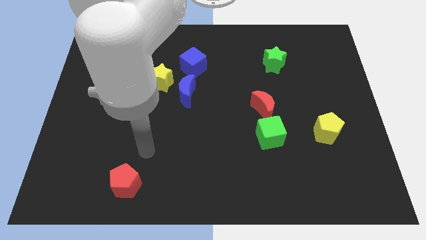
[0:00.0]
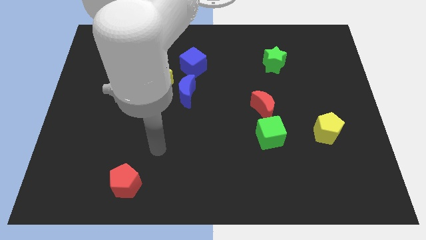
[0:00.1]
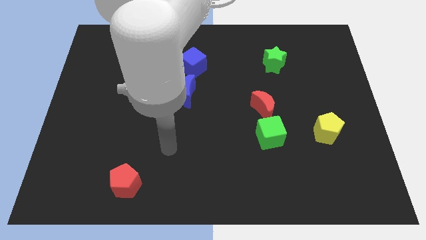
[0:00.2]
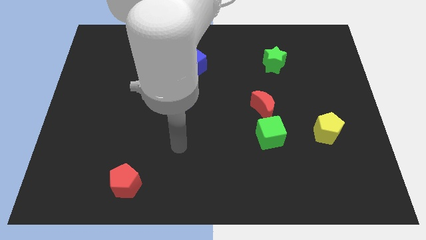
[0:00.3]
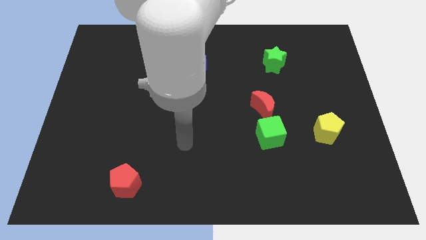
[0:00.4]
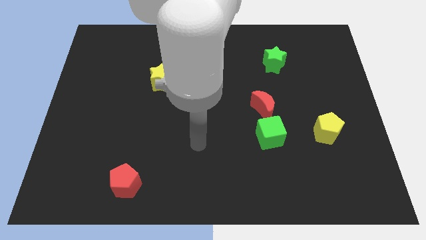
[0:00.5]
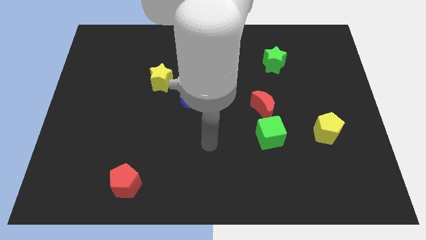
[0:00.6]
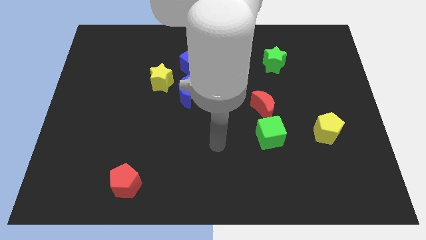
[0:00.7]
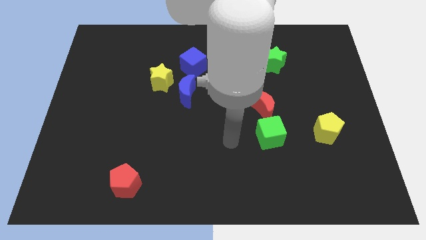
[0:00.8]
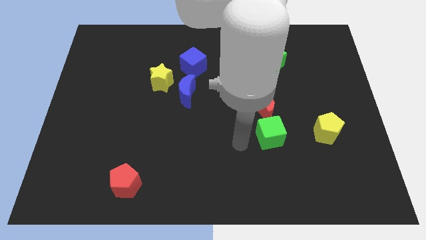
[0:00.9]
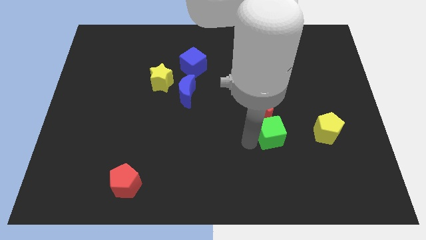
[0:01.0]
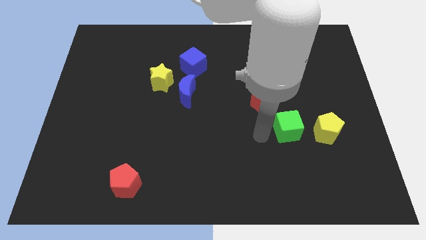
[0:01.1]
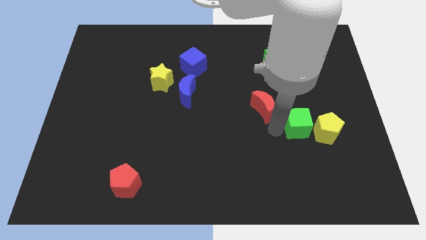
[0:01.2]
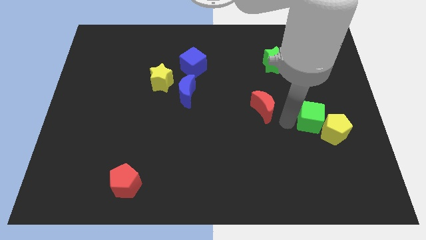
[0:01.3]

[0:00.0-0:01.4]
pull the red moon apart from the green cube

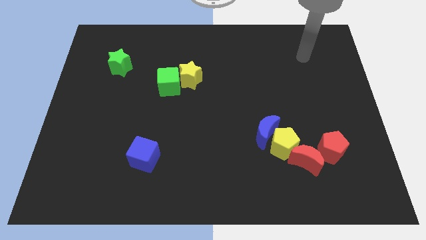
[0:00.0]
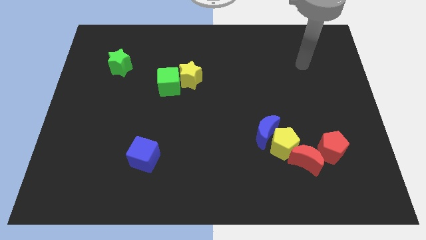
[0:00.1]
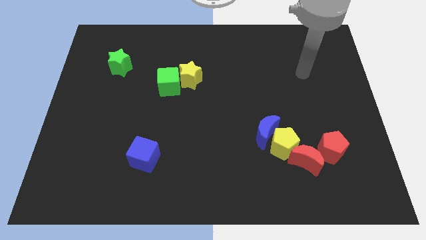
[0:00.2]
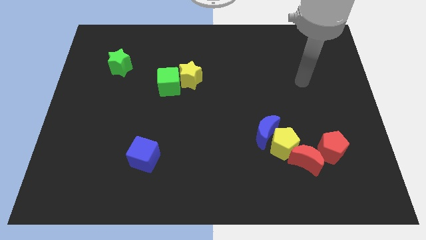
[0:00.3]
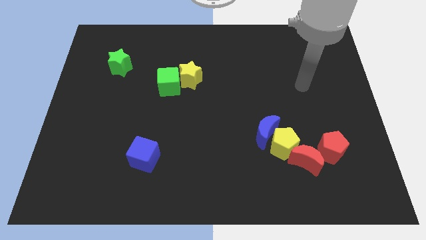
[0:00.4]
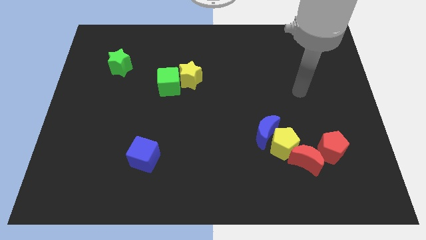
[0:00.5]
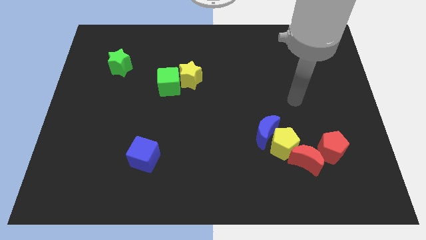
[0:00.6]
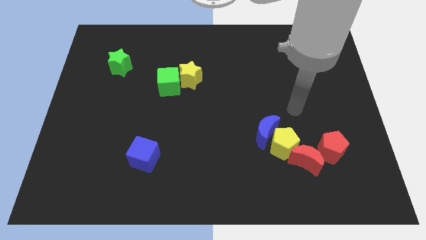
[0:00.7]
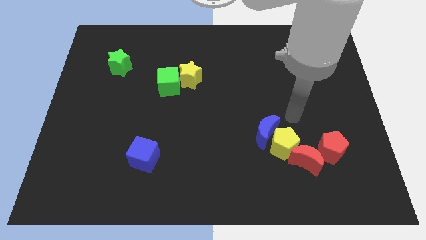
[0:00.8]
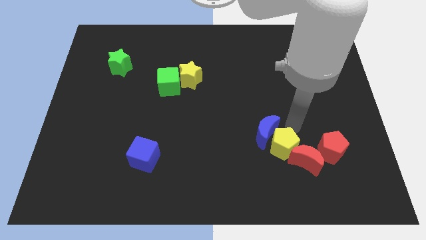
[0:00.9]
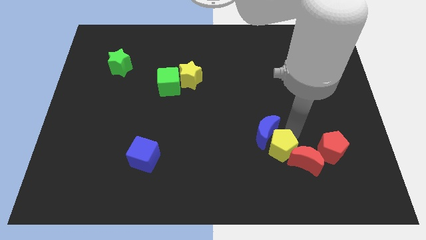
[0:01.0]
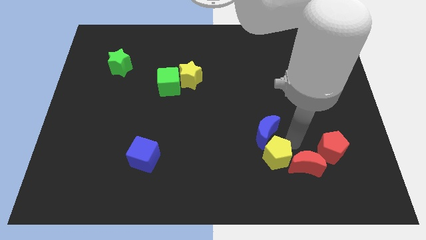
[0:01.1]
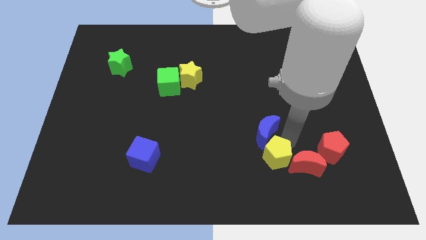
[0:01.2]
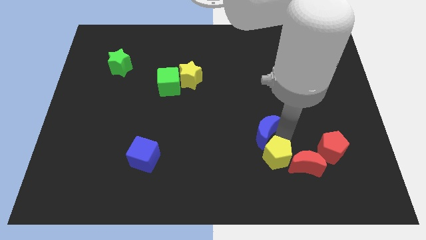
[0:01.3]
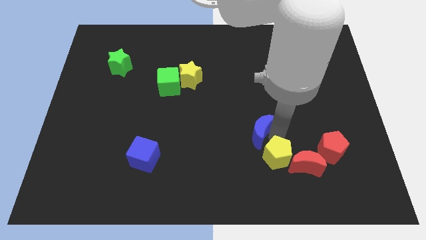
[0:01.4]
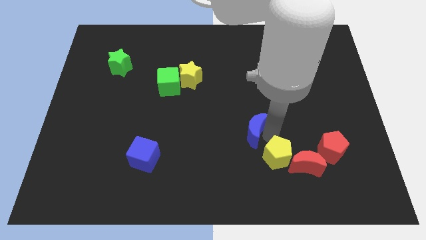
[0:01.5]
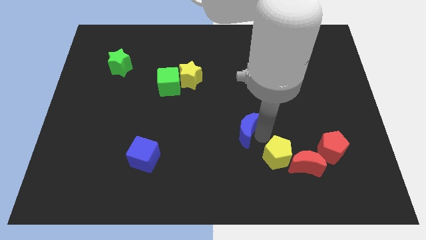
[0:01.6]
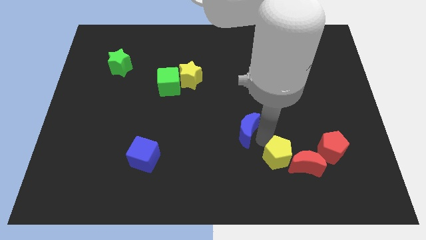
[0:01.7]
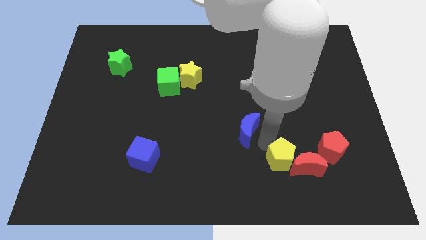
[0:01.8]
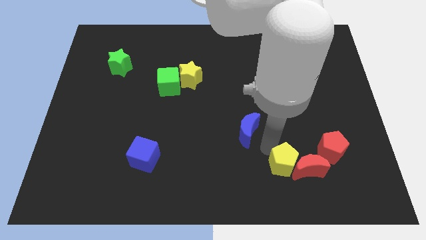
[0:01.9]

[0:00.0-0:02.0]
pull the blue moon apart from the yellow pentagon

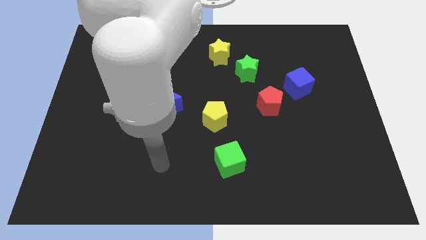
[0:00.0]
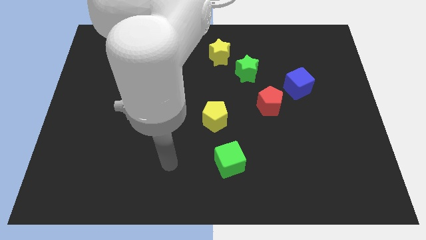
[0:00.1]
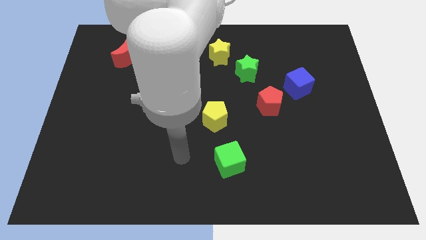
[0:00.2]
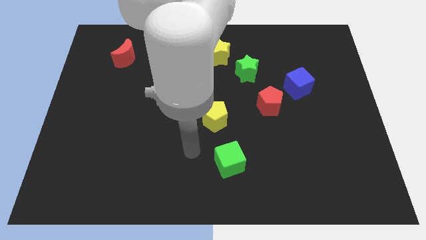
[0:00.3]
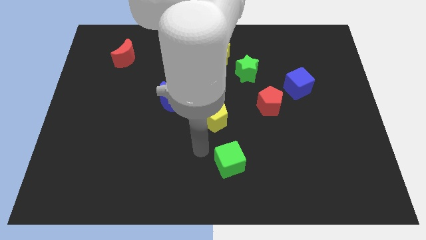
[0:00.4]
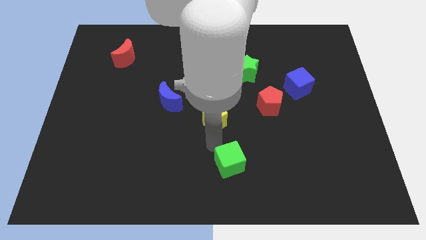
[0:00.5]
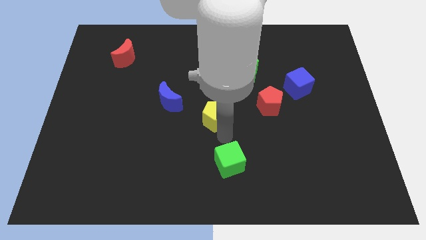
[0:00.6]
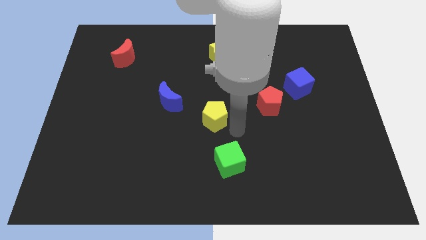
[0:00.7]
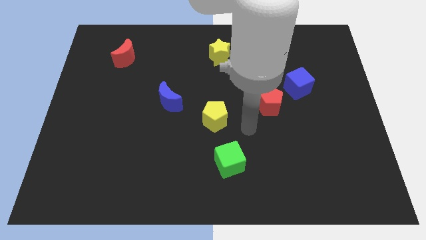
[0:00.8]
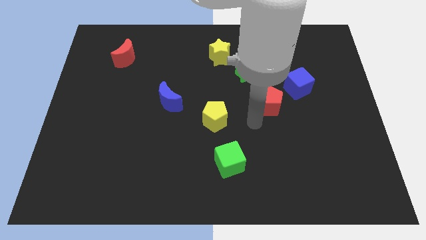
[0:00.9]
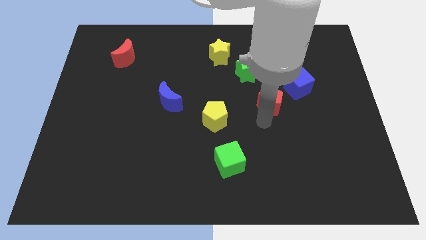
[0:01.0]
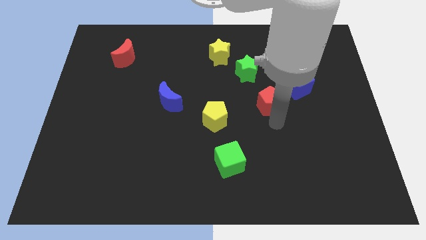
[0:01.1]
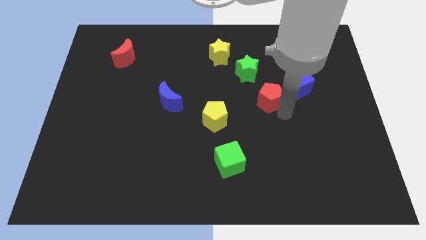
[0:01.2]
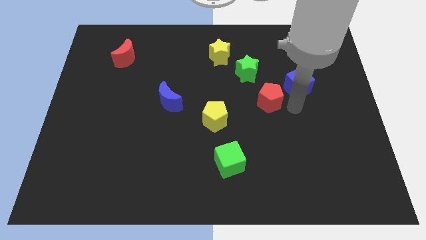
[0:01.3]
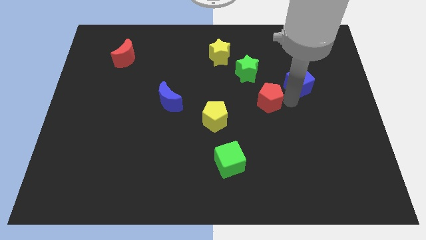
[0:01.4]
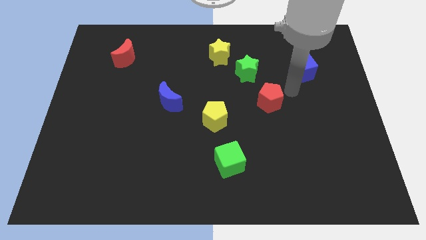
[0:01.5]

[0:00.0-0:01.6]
pull the red pentagon apart from the blue cube

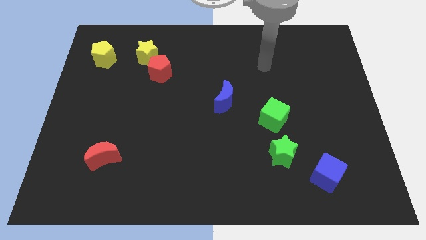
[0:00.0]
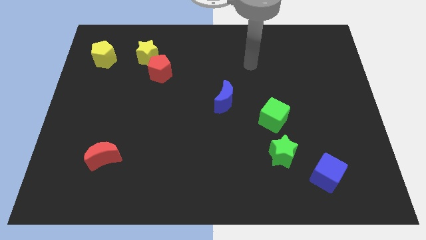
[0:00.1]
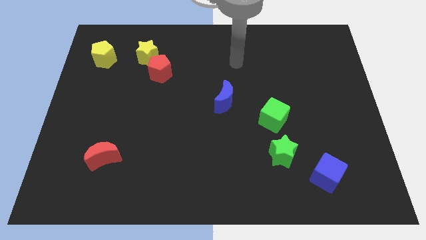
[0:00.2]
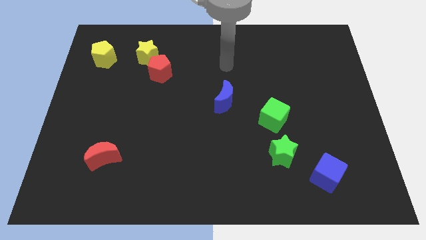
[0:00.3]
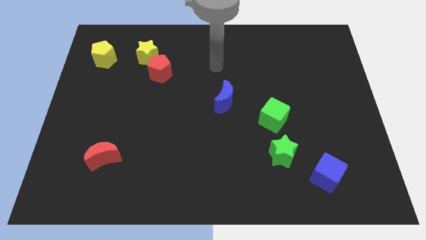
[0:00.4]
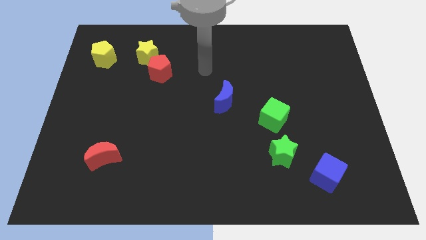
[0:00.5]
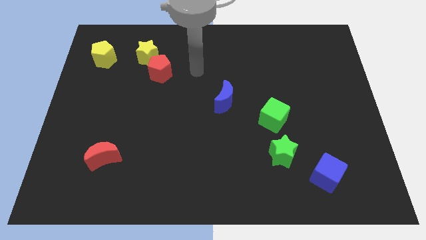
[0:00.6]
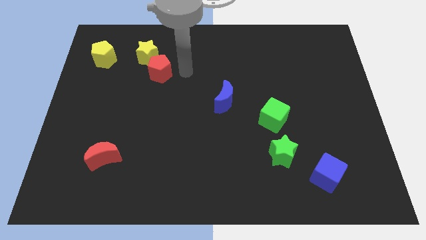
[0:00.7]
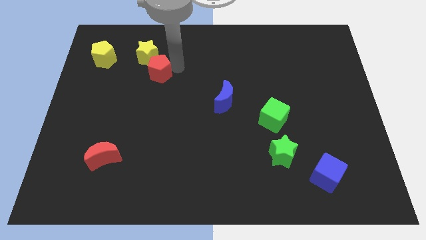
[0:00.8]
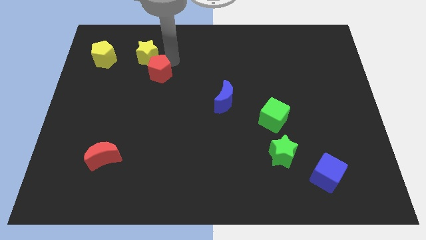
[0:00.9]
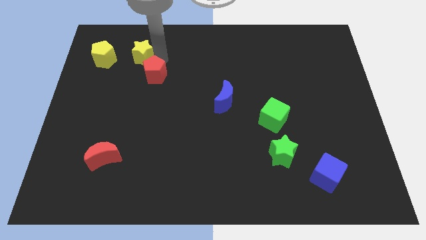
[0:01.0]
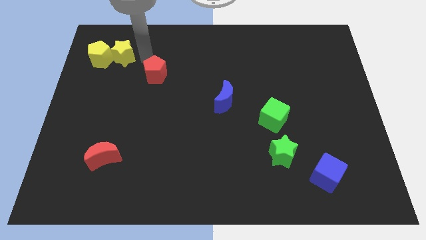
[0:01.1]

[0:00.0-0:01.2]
pull the red pentagon apart from the yellow star

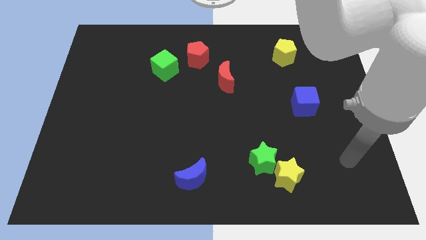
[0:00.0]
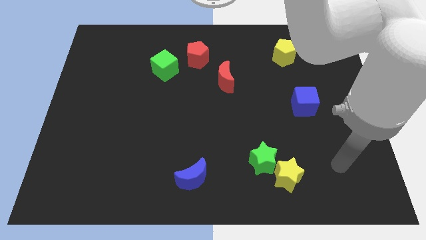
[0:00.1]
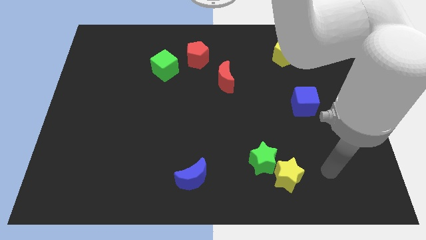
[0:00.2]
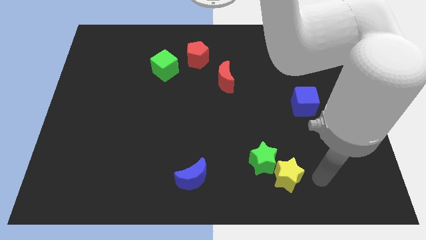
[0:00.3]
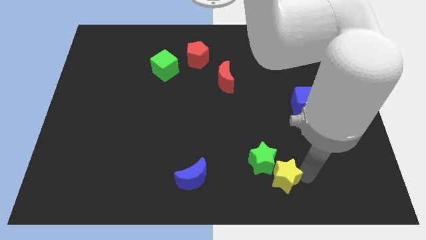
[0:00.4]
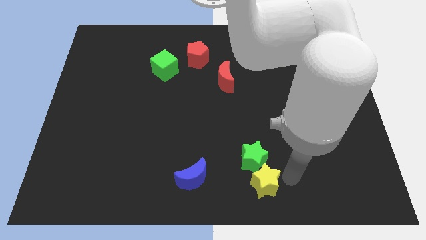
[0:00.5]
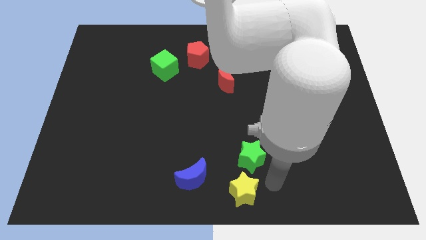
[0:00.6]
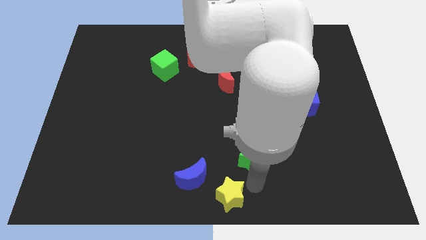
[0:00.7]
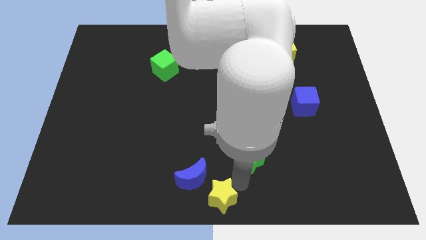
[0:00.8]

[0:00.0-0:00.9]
pull the green star apart from the yellow star

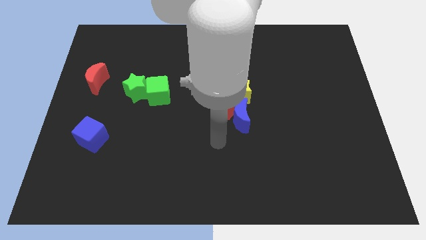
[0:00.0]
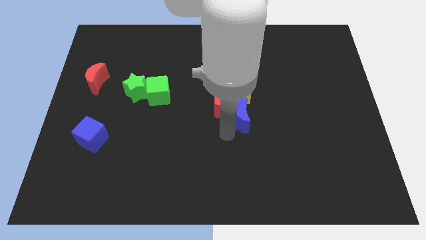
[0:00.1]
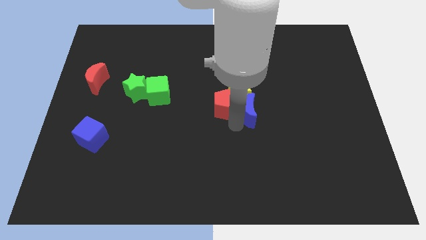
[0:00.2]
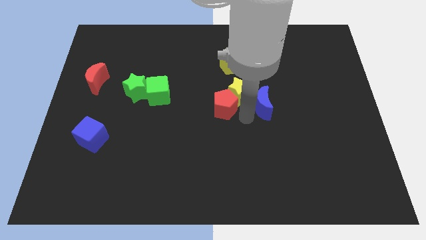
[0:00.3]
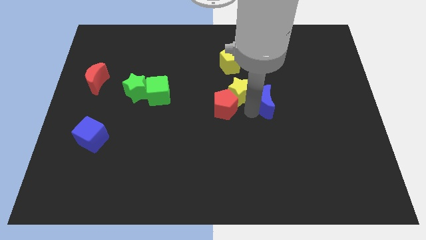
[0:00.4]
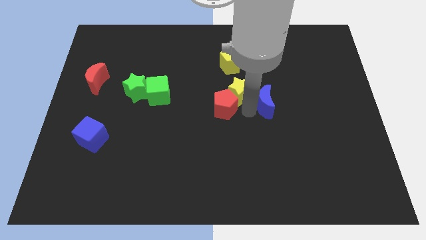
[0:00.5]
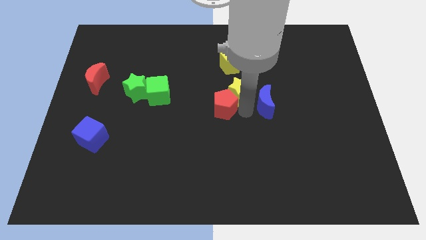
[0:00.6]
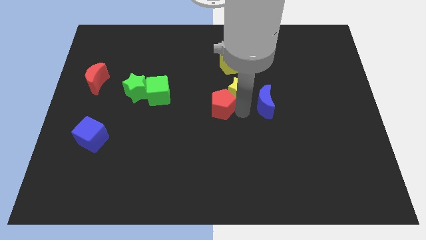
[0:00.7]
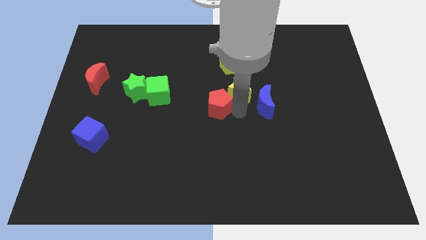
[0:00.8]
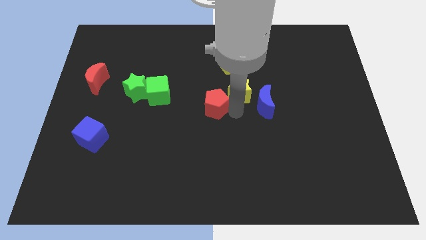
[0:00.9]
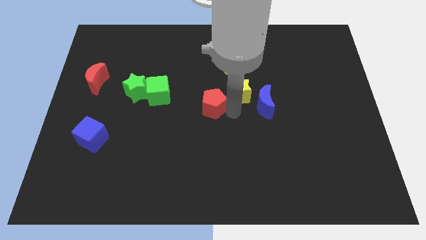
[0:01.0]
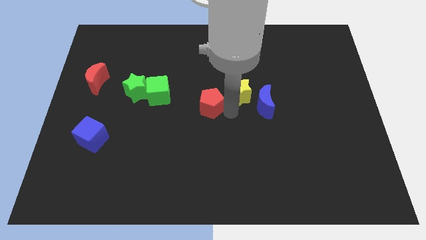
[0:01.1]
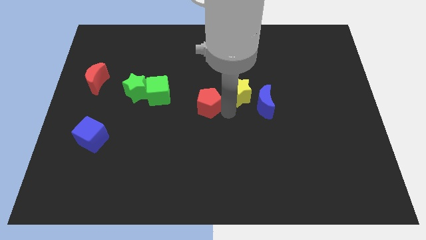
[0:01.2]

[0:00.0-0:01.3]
move the red pentagon away from the yellow star and blue moon

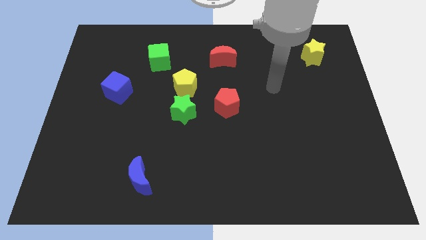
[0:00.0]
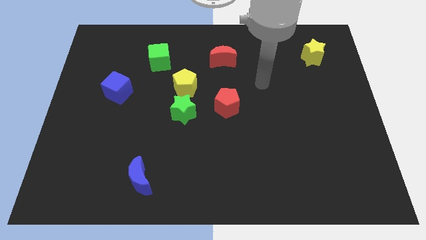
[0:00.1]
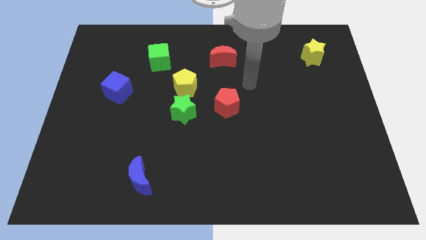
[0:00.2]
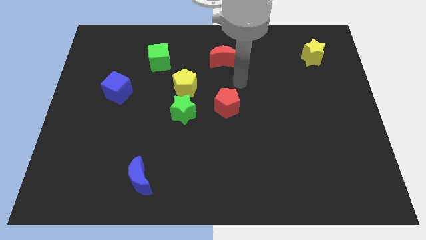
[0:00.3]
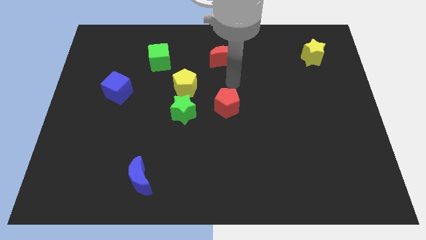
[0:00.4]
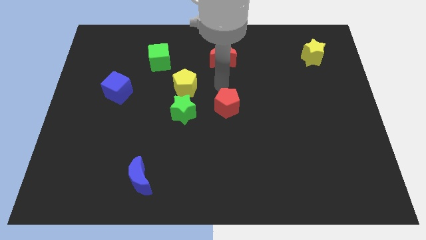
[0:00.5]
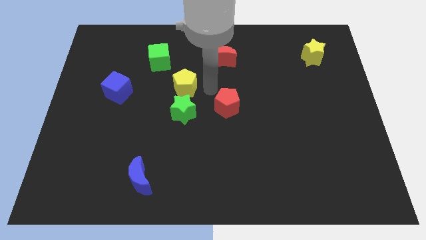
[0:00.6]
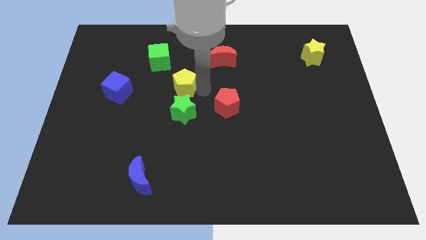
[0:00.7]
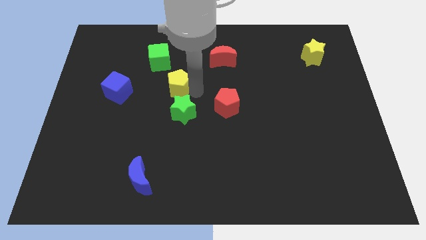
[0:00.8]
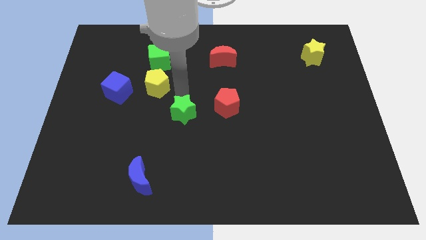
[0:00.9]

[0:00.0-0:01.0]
pull the green star apart from the yellow pentagon
